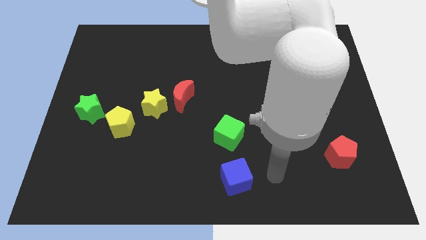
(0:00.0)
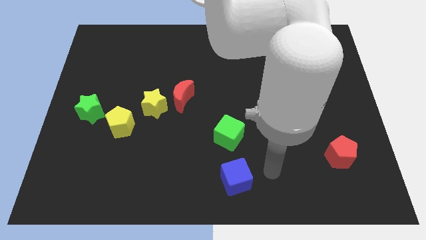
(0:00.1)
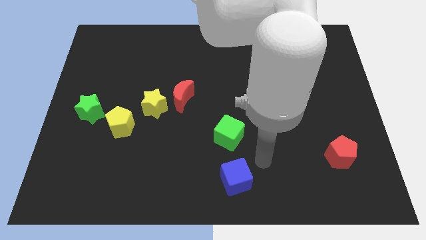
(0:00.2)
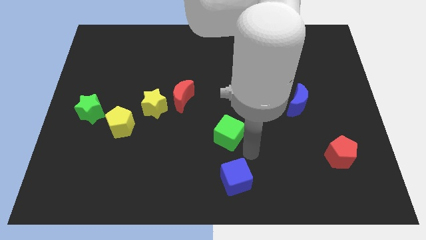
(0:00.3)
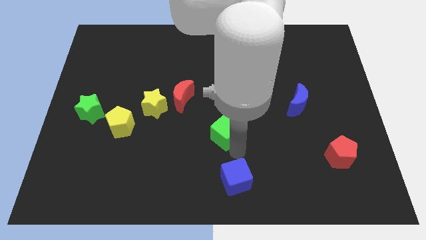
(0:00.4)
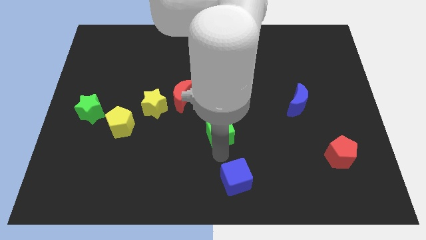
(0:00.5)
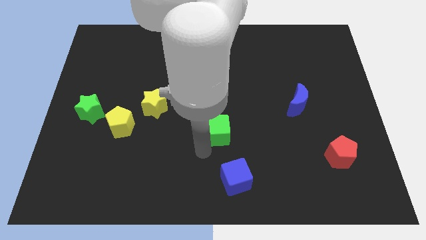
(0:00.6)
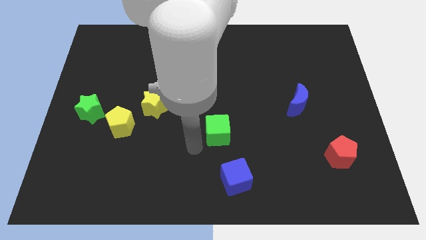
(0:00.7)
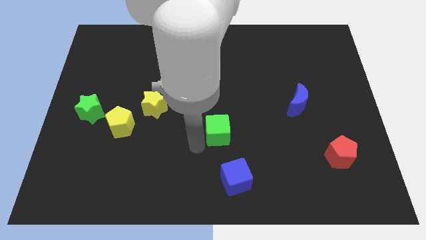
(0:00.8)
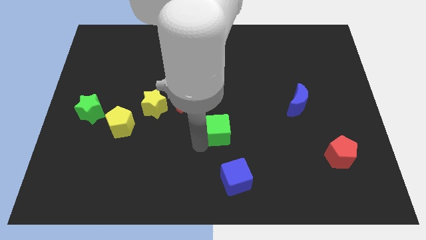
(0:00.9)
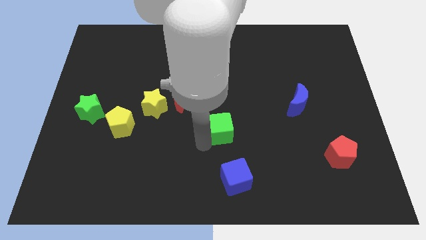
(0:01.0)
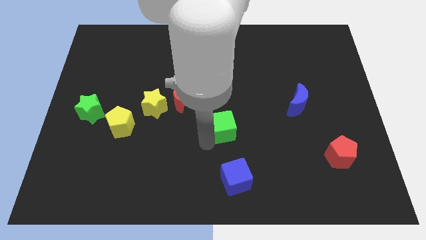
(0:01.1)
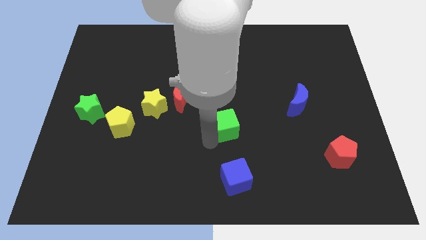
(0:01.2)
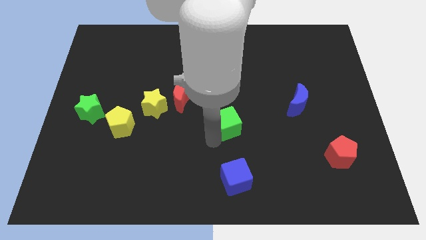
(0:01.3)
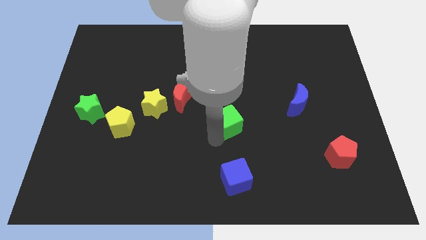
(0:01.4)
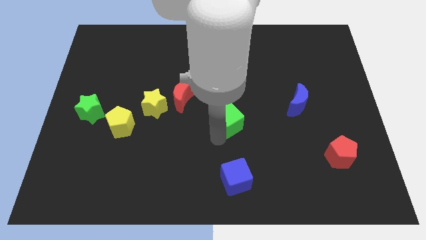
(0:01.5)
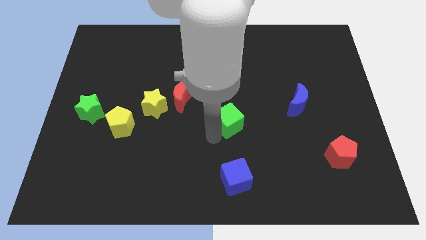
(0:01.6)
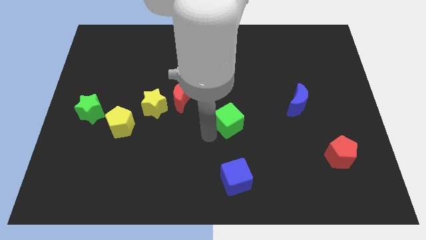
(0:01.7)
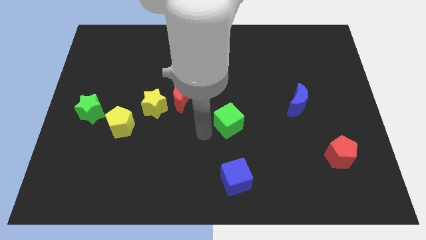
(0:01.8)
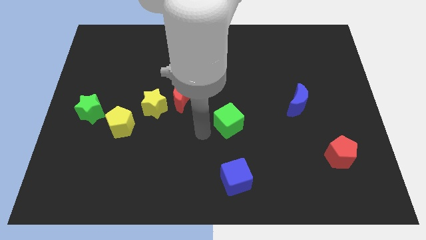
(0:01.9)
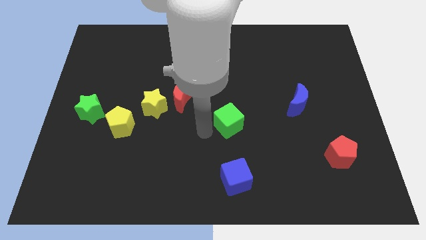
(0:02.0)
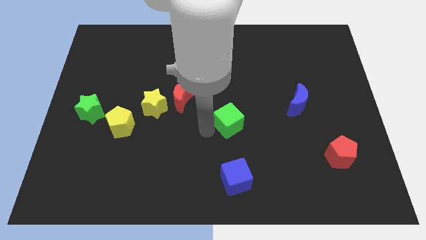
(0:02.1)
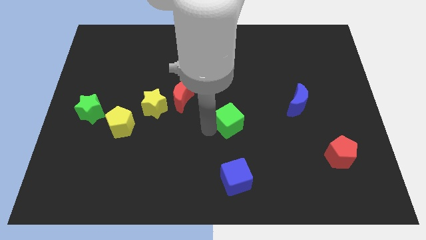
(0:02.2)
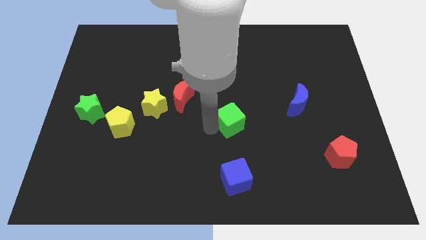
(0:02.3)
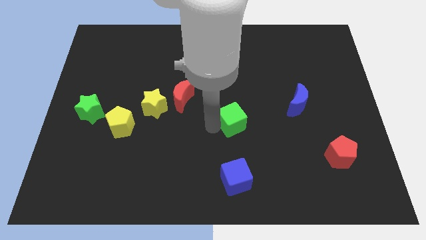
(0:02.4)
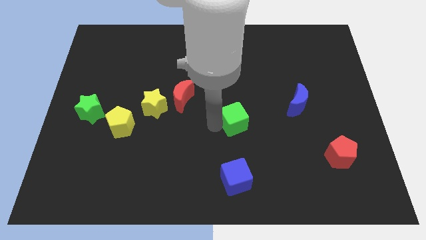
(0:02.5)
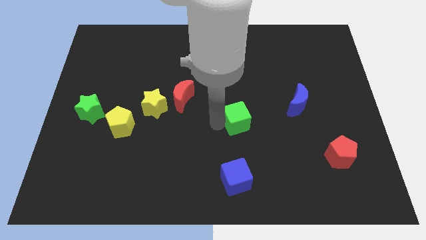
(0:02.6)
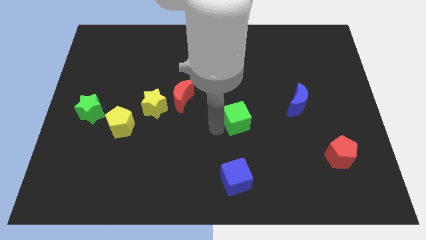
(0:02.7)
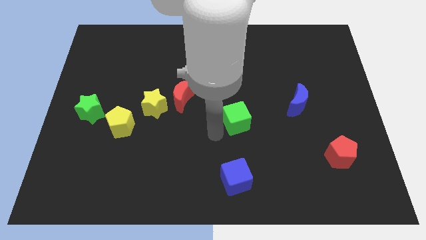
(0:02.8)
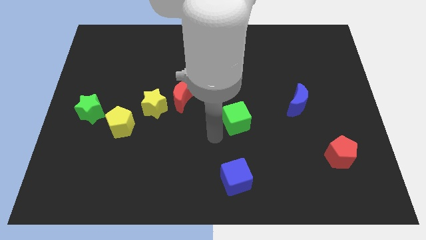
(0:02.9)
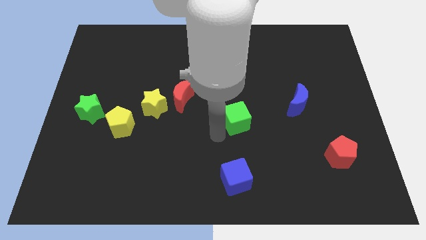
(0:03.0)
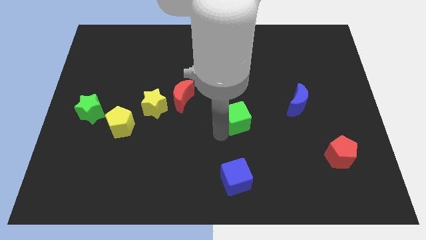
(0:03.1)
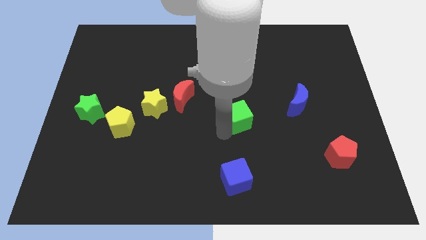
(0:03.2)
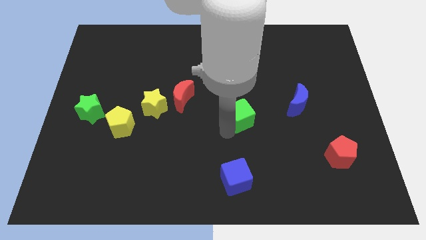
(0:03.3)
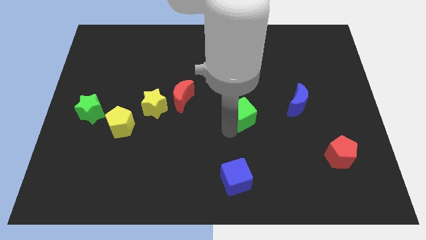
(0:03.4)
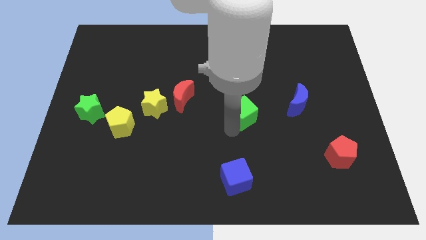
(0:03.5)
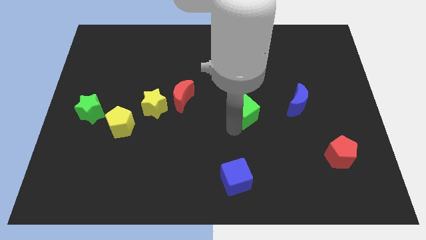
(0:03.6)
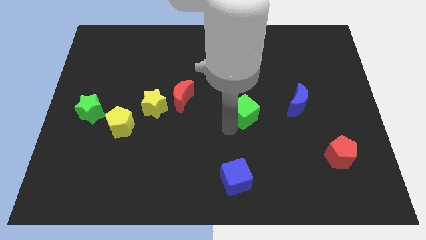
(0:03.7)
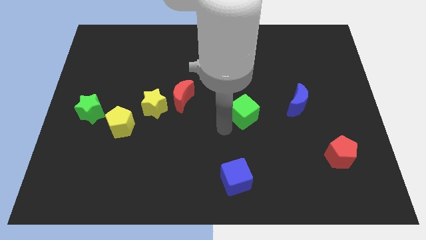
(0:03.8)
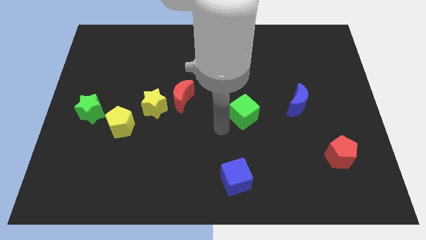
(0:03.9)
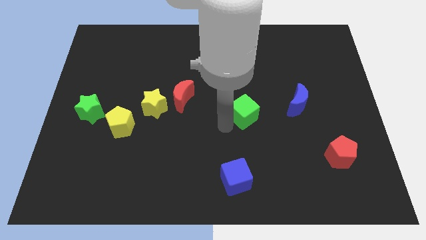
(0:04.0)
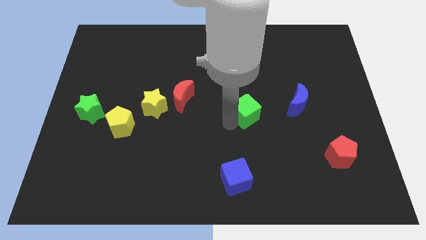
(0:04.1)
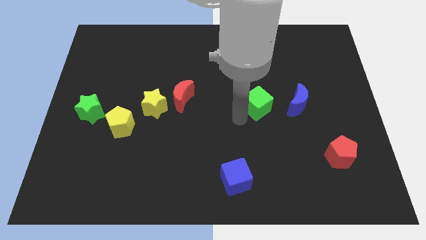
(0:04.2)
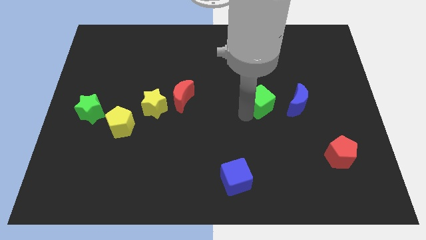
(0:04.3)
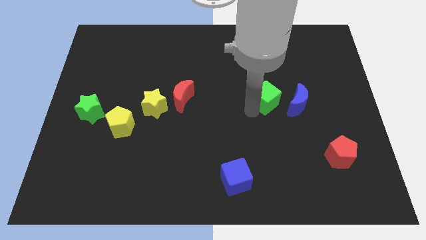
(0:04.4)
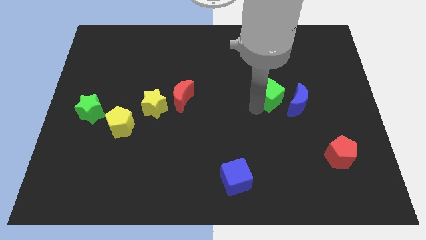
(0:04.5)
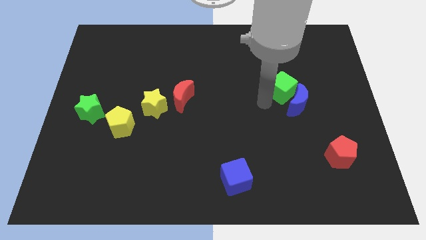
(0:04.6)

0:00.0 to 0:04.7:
put the green cube to the top side of the blue moon

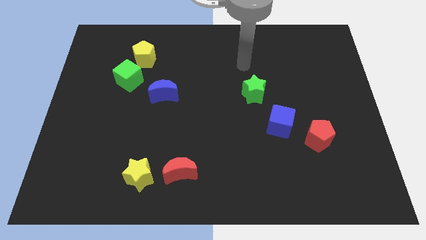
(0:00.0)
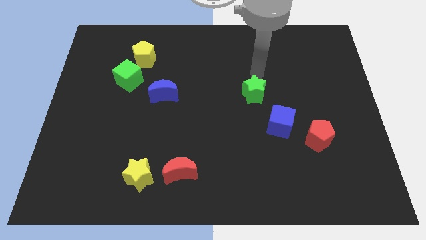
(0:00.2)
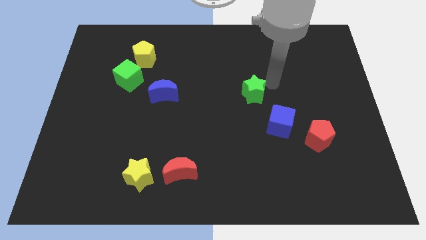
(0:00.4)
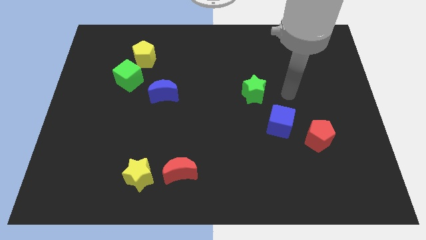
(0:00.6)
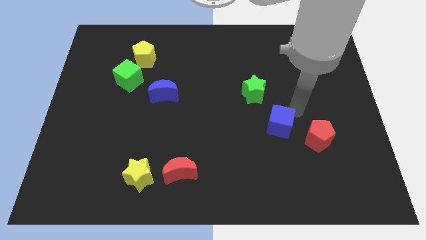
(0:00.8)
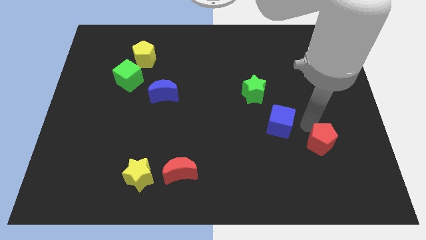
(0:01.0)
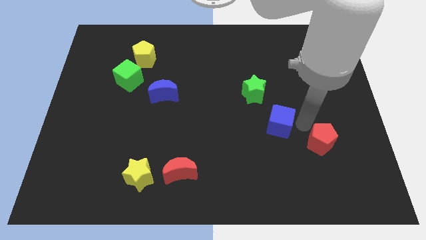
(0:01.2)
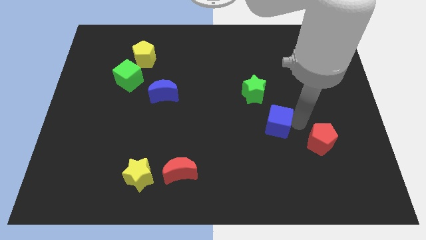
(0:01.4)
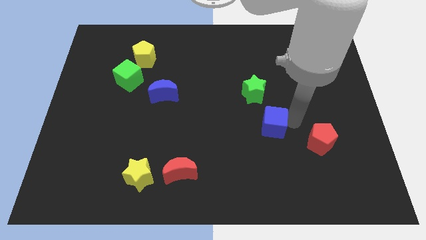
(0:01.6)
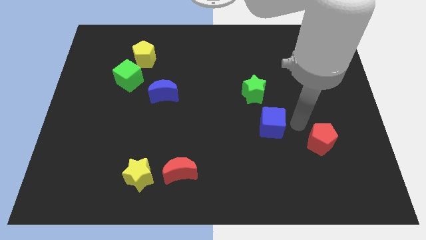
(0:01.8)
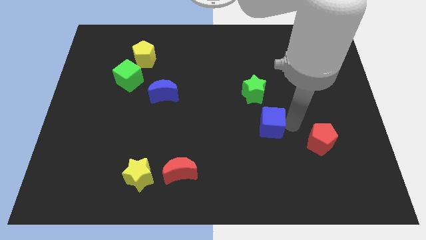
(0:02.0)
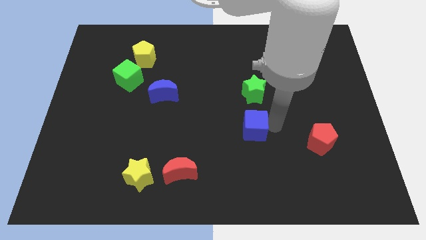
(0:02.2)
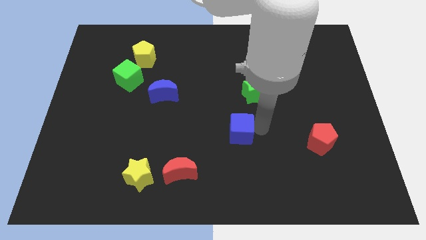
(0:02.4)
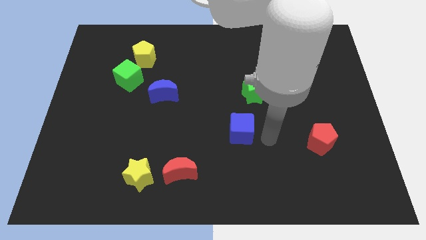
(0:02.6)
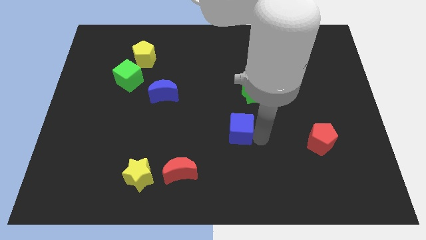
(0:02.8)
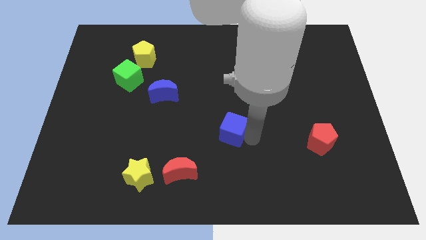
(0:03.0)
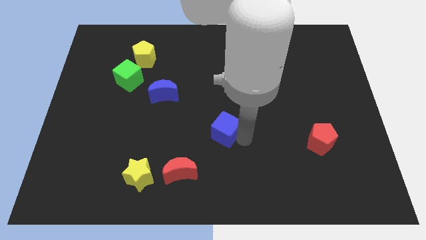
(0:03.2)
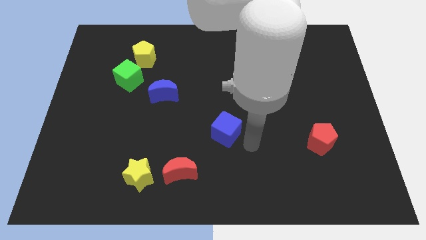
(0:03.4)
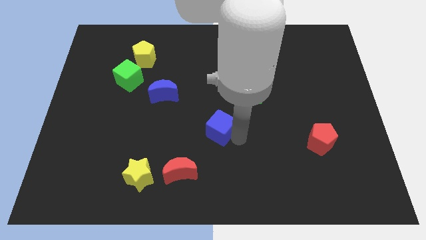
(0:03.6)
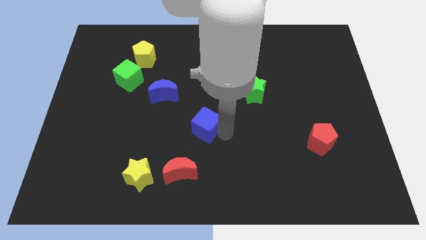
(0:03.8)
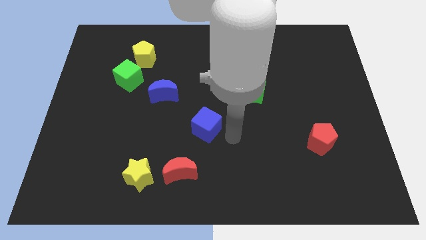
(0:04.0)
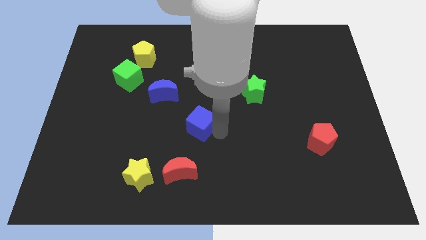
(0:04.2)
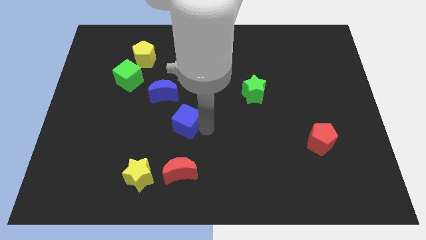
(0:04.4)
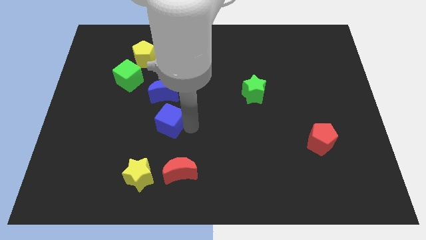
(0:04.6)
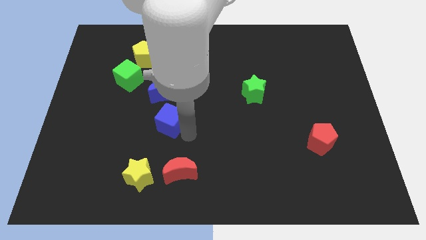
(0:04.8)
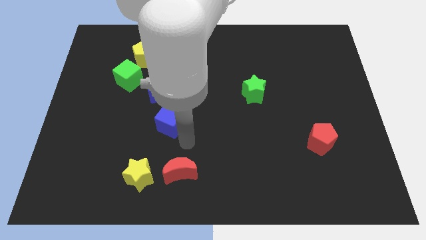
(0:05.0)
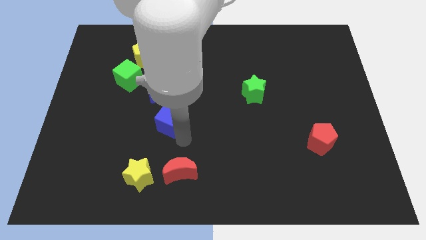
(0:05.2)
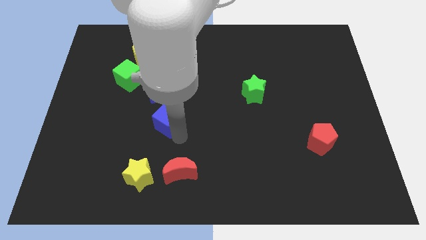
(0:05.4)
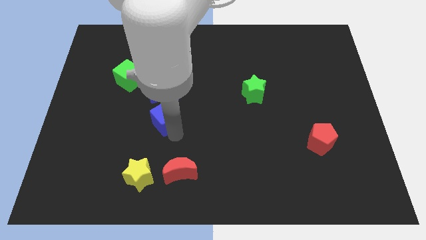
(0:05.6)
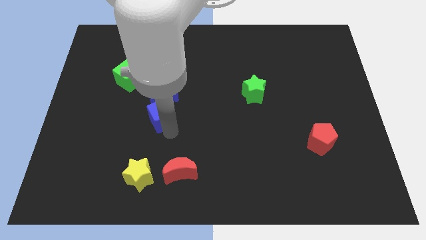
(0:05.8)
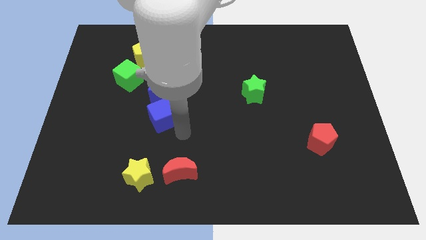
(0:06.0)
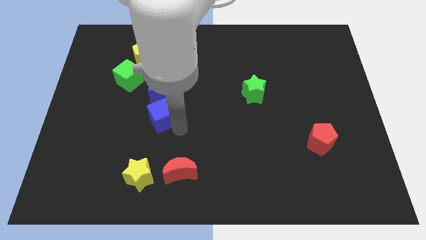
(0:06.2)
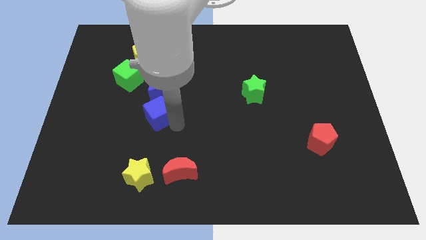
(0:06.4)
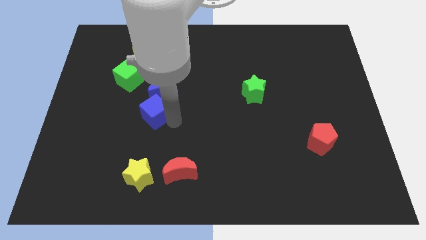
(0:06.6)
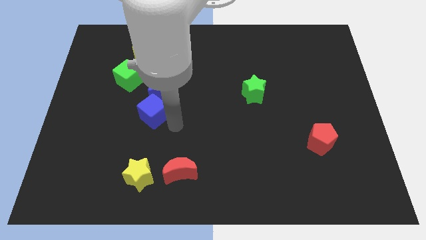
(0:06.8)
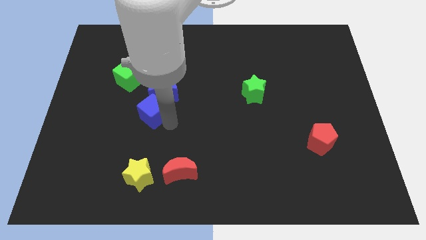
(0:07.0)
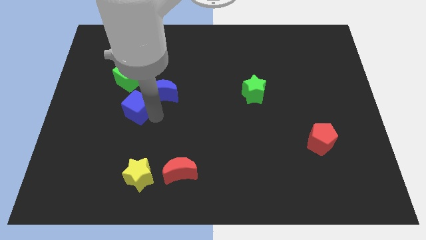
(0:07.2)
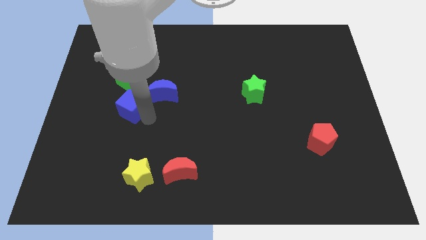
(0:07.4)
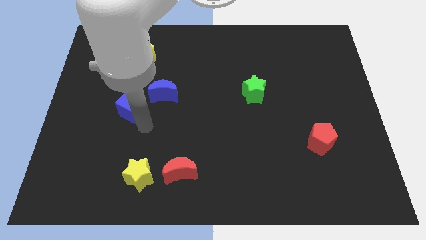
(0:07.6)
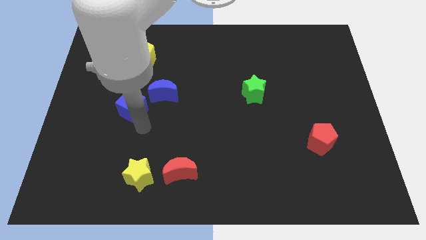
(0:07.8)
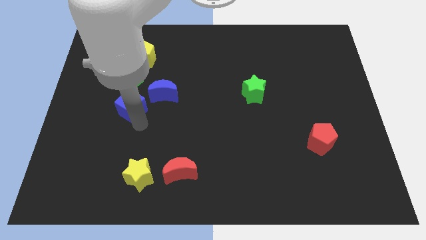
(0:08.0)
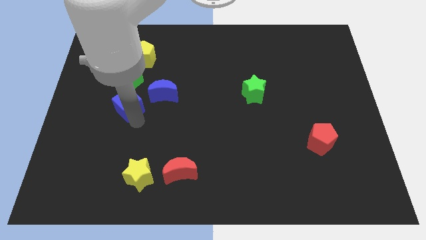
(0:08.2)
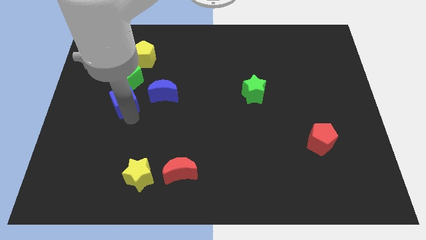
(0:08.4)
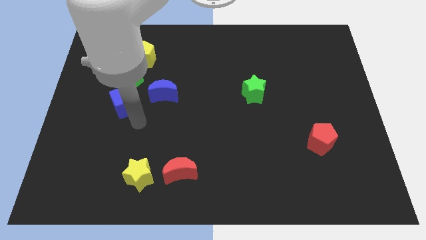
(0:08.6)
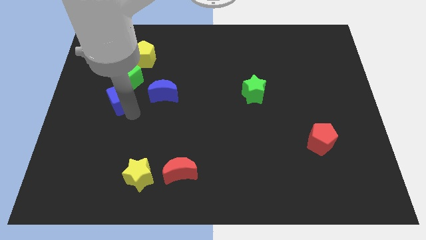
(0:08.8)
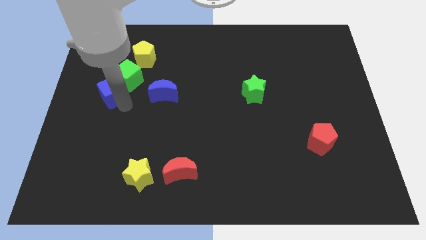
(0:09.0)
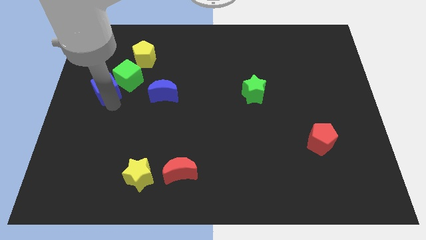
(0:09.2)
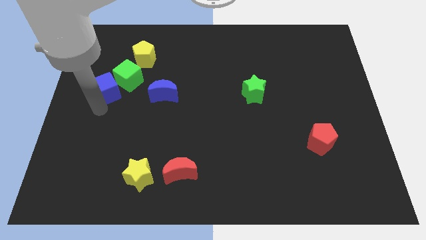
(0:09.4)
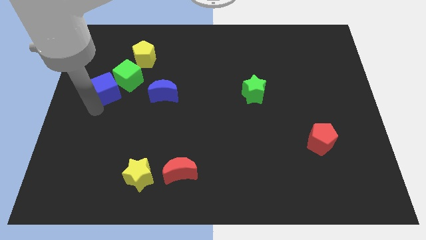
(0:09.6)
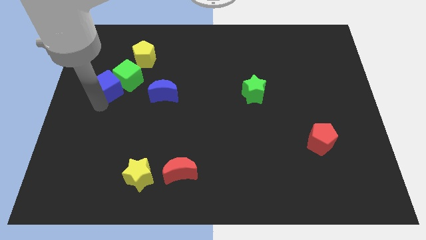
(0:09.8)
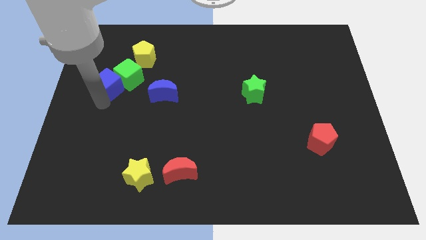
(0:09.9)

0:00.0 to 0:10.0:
put the blue cube diagonally down and to the left of the yellow pentagon
